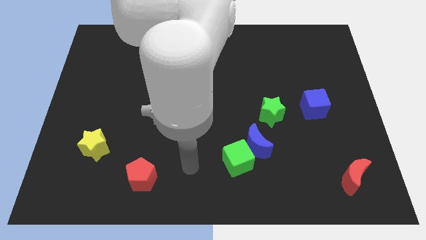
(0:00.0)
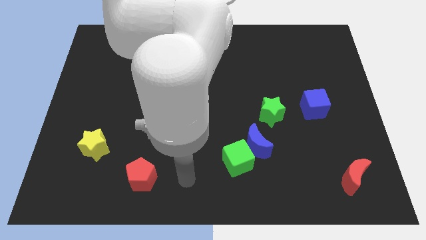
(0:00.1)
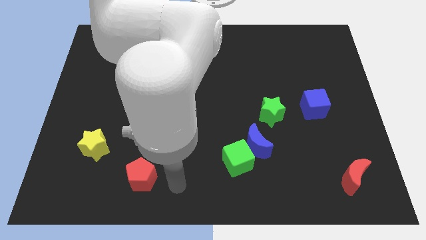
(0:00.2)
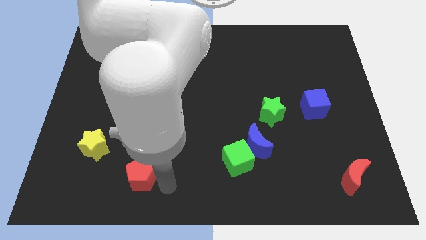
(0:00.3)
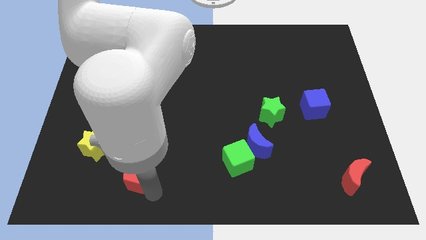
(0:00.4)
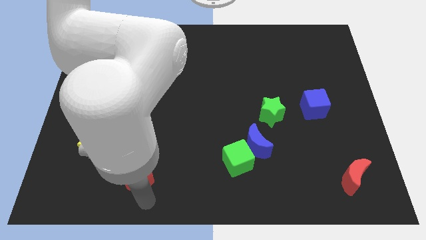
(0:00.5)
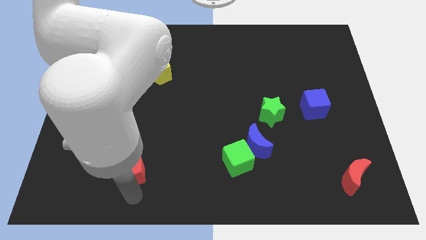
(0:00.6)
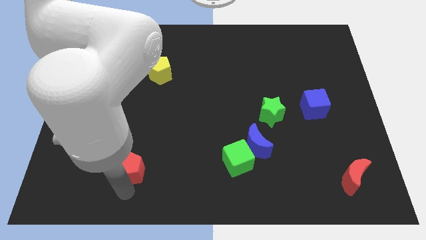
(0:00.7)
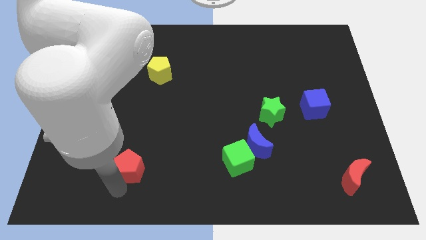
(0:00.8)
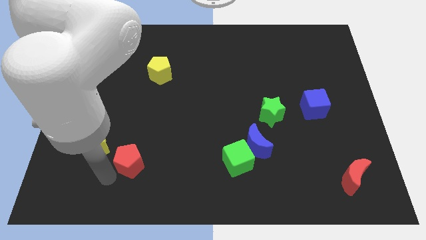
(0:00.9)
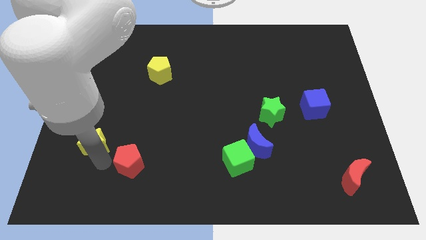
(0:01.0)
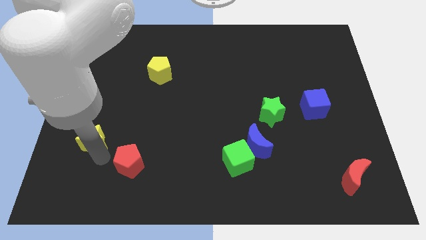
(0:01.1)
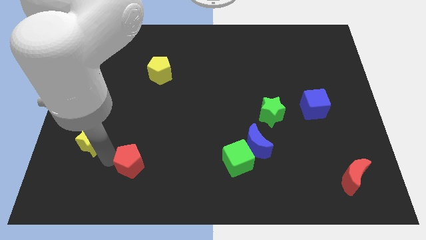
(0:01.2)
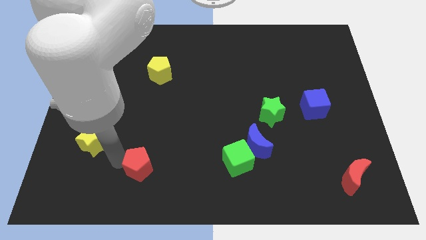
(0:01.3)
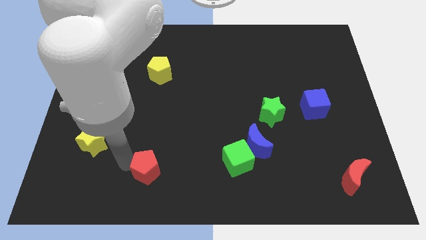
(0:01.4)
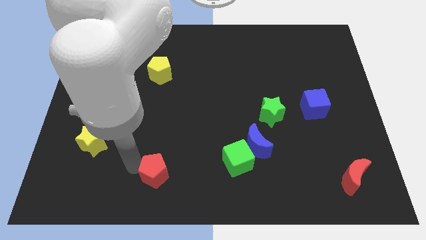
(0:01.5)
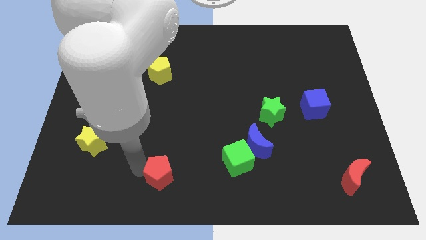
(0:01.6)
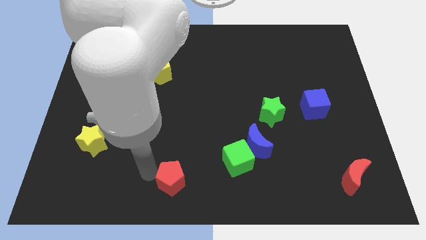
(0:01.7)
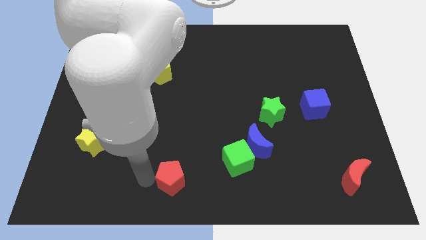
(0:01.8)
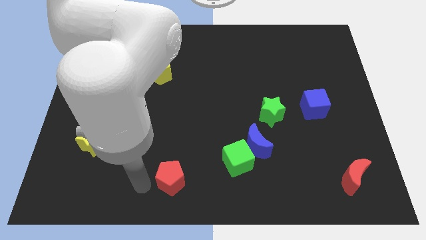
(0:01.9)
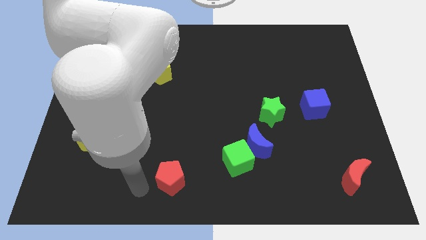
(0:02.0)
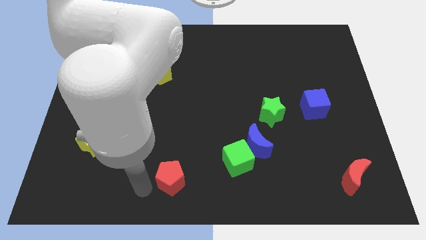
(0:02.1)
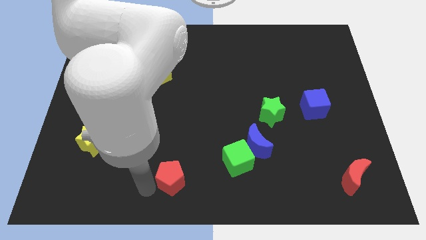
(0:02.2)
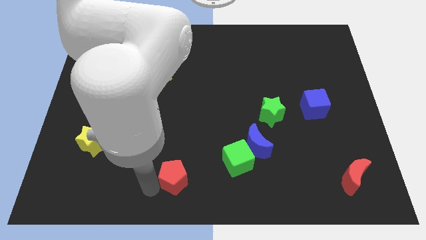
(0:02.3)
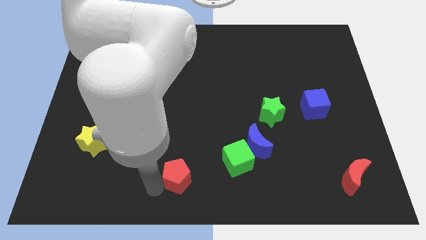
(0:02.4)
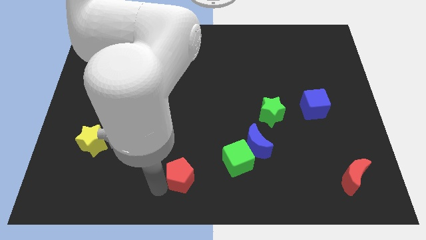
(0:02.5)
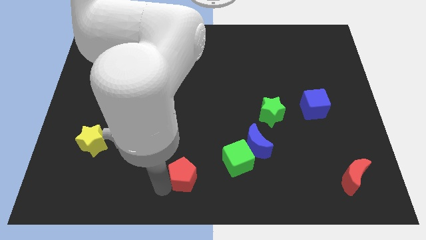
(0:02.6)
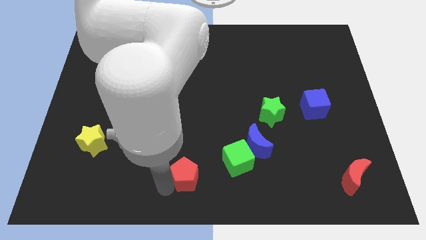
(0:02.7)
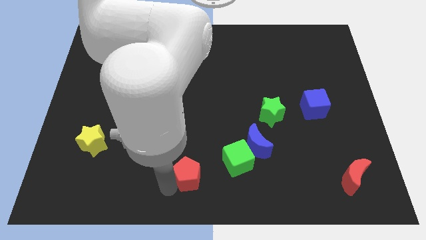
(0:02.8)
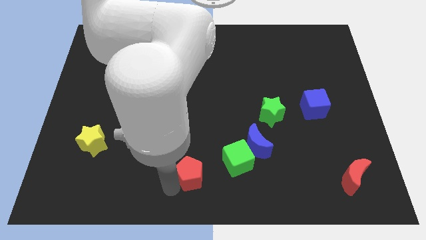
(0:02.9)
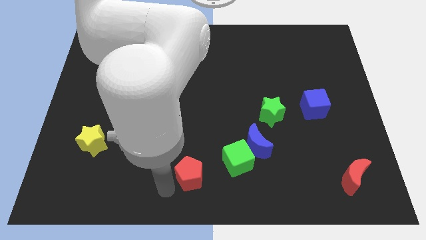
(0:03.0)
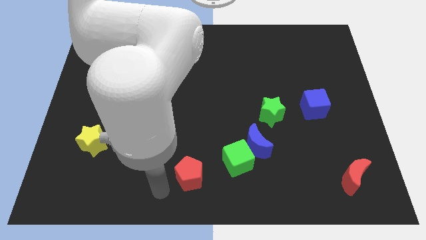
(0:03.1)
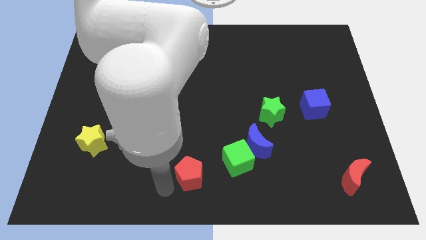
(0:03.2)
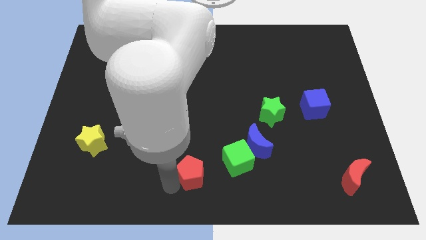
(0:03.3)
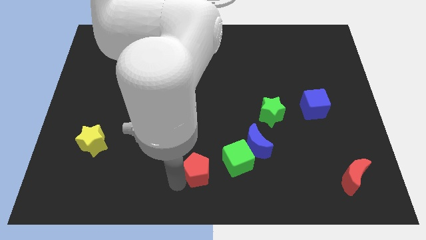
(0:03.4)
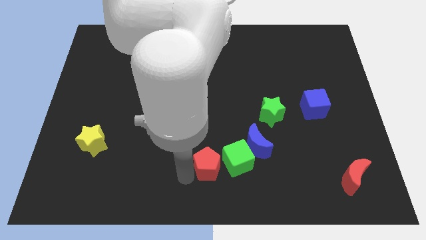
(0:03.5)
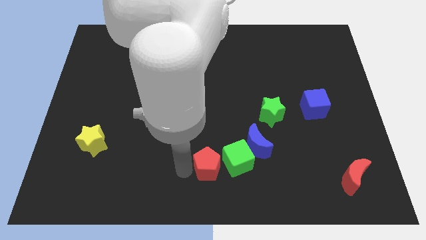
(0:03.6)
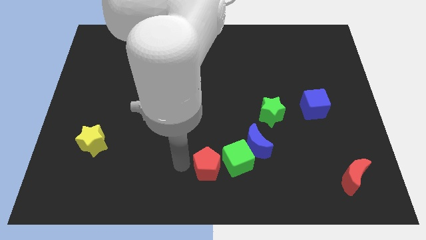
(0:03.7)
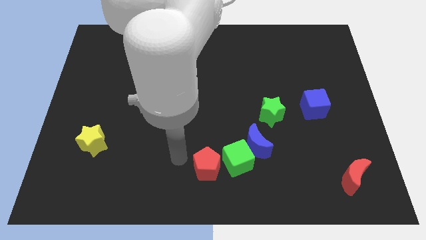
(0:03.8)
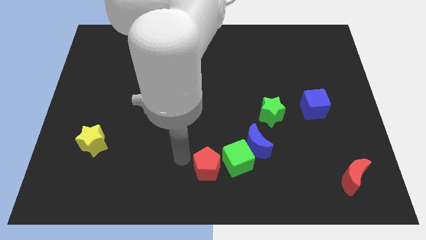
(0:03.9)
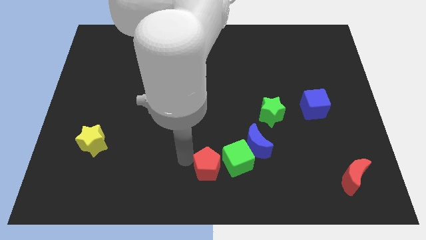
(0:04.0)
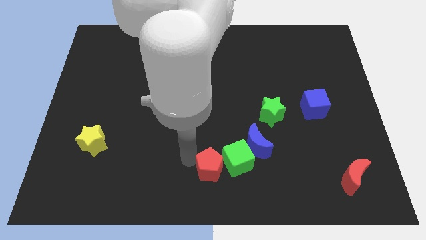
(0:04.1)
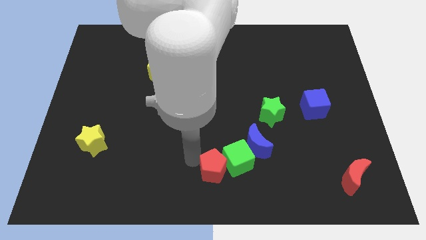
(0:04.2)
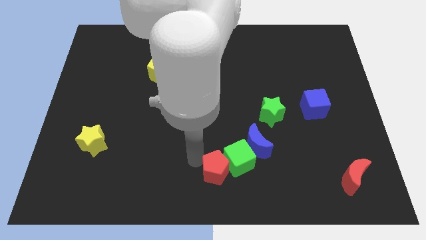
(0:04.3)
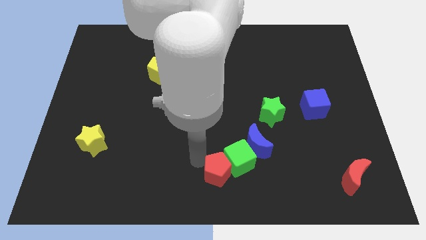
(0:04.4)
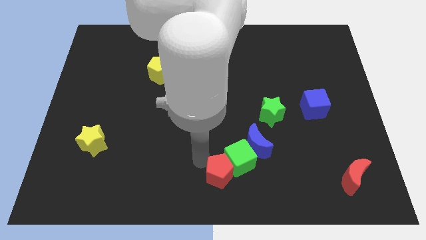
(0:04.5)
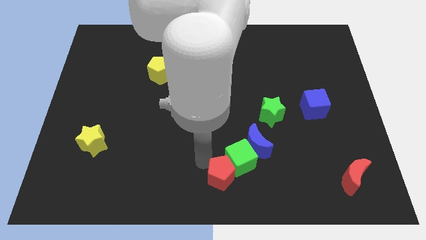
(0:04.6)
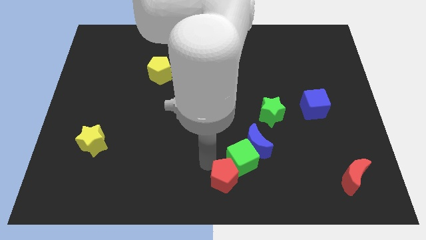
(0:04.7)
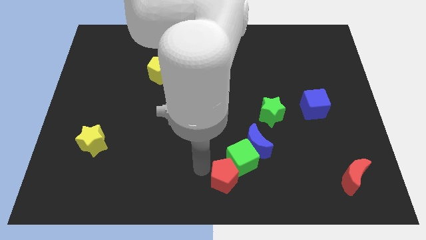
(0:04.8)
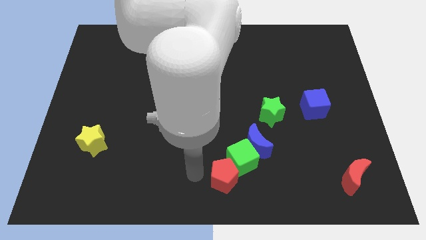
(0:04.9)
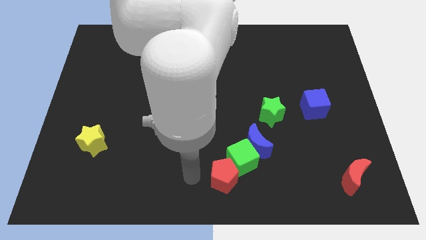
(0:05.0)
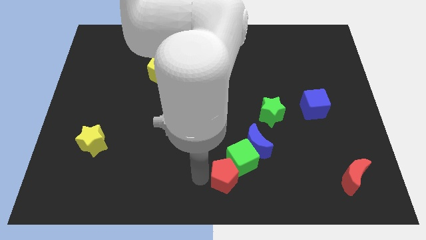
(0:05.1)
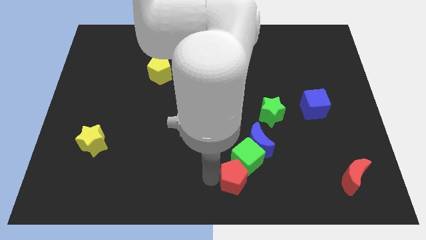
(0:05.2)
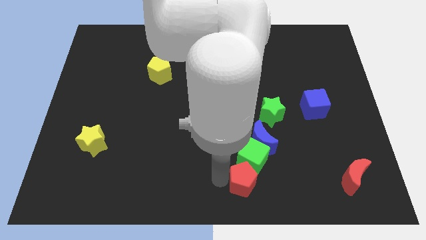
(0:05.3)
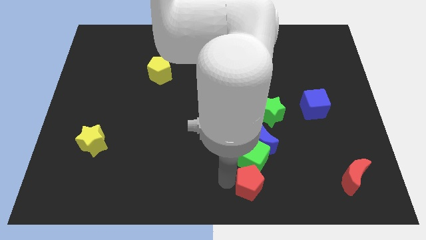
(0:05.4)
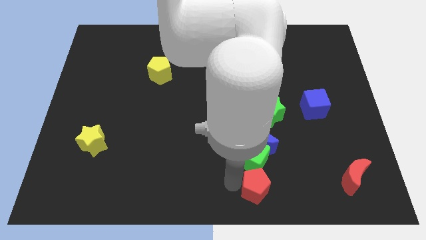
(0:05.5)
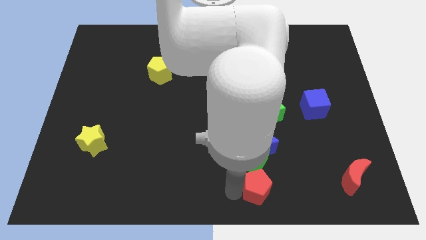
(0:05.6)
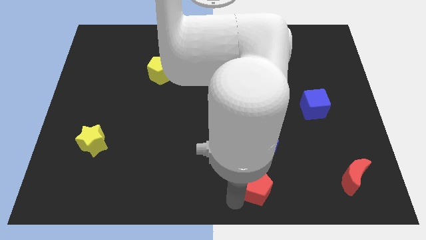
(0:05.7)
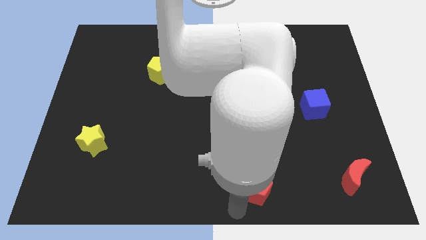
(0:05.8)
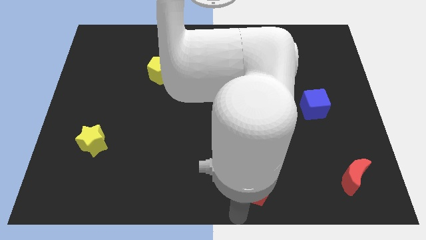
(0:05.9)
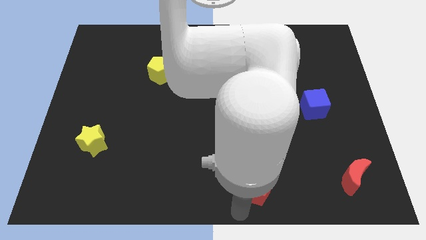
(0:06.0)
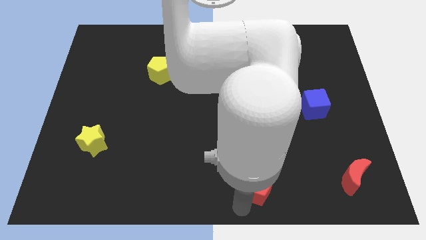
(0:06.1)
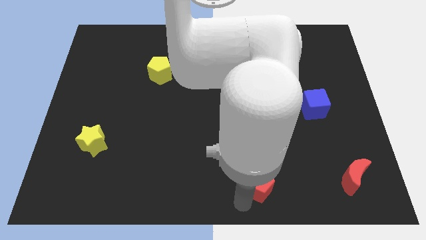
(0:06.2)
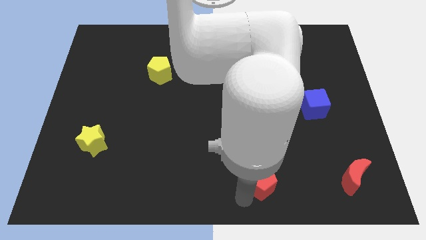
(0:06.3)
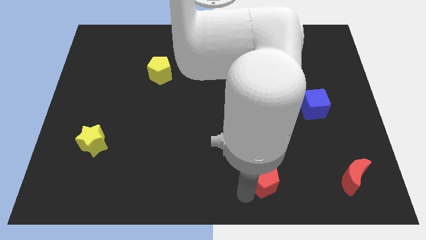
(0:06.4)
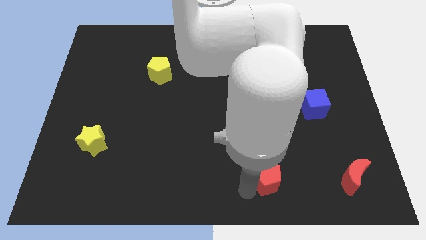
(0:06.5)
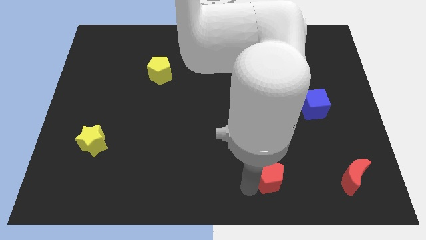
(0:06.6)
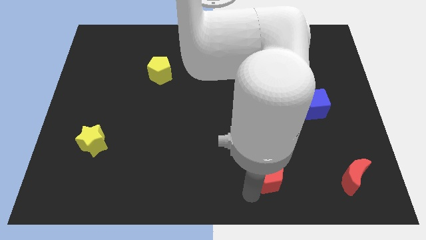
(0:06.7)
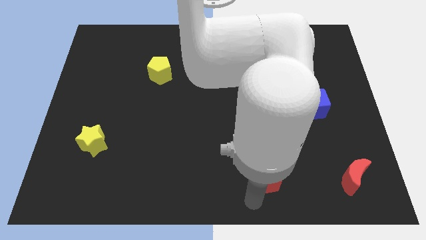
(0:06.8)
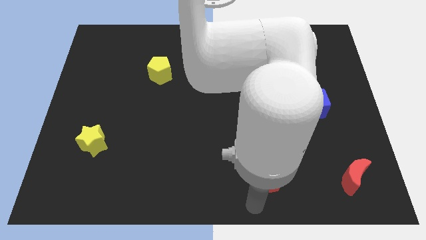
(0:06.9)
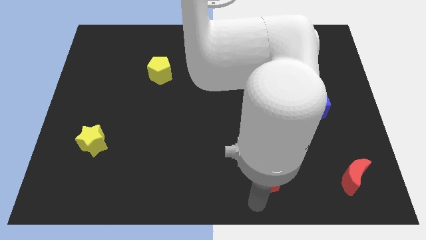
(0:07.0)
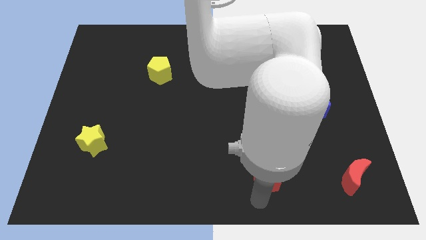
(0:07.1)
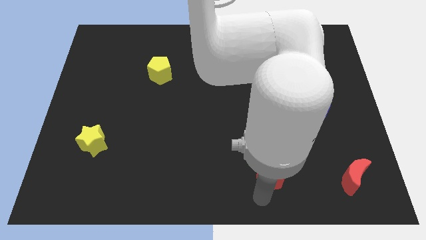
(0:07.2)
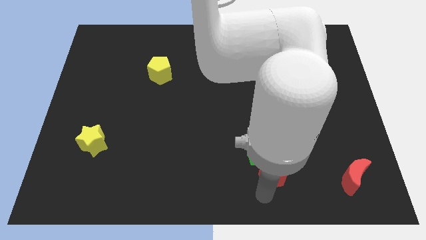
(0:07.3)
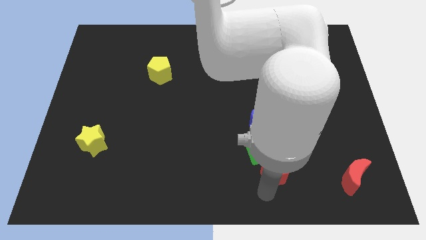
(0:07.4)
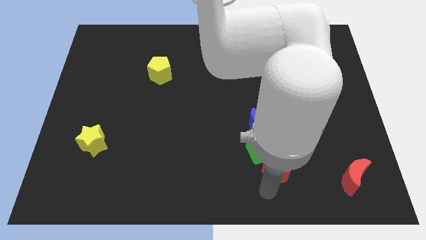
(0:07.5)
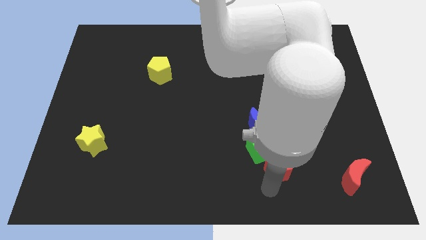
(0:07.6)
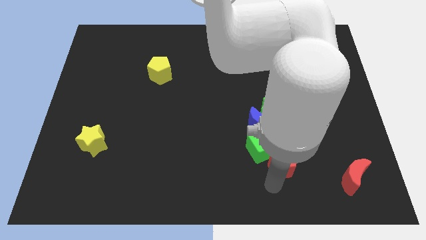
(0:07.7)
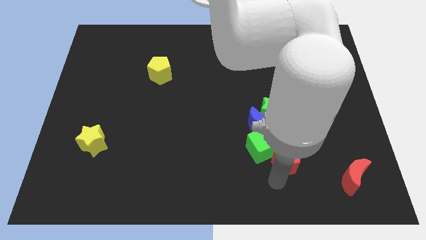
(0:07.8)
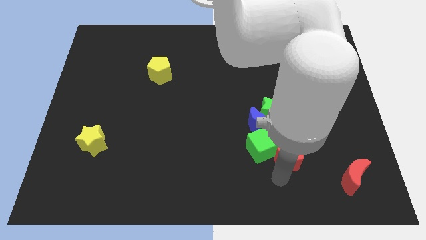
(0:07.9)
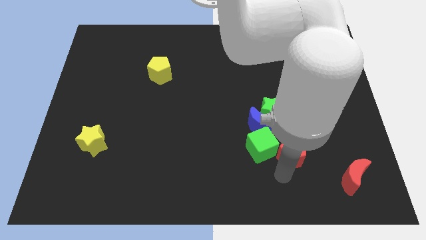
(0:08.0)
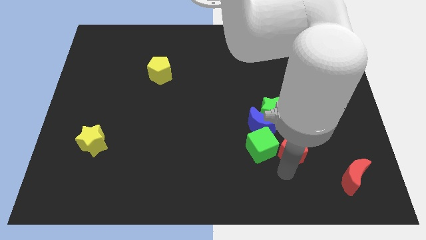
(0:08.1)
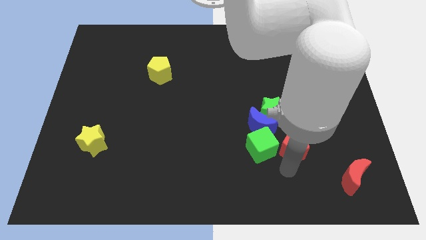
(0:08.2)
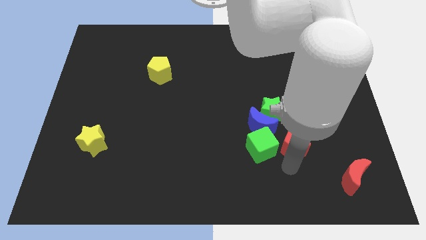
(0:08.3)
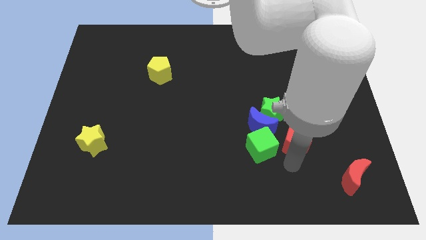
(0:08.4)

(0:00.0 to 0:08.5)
move the red pentagon to the bottom left of the blue cube
